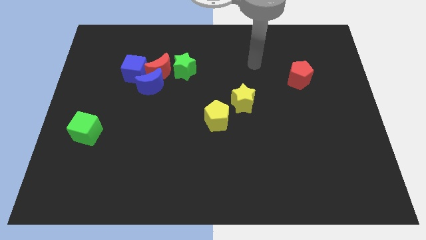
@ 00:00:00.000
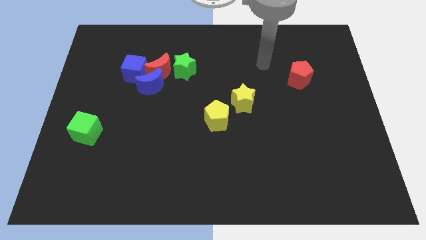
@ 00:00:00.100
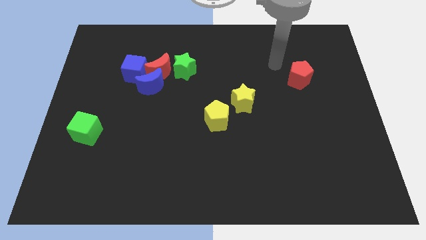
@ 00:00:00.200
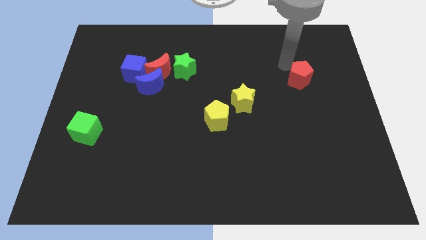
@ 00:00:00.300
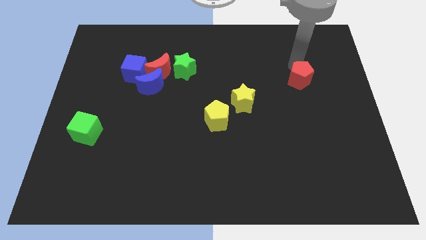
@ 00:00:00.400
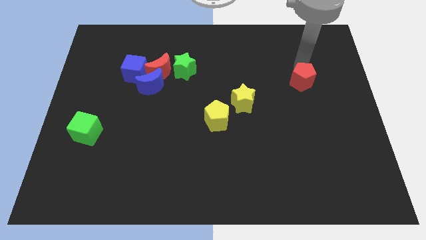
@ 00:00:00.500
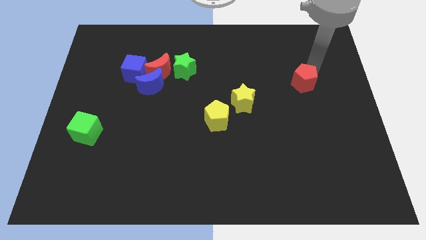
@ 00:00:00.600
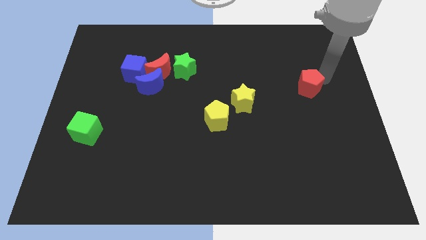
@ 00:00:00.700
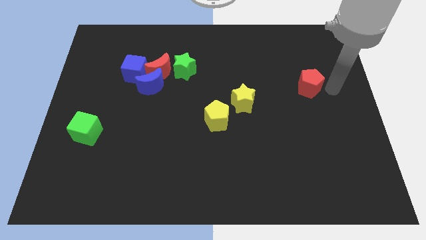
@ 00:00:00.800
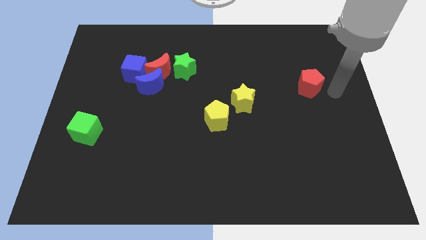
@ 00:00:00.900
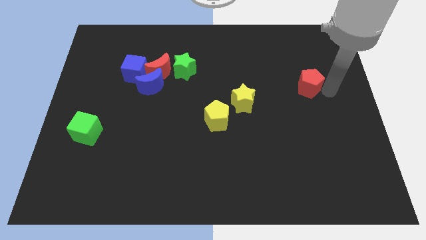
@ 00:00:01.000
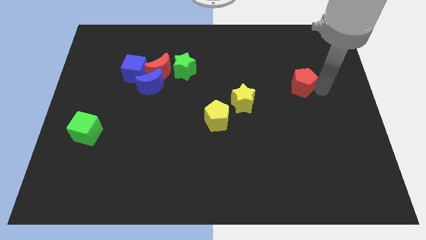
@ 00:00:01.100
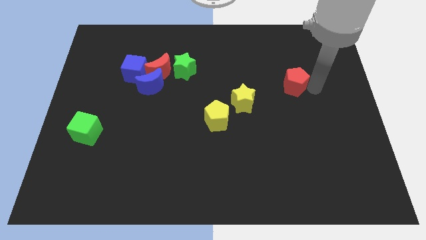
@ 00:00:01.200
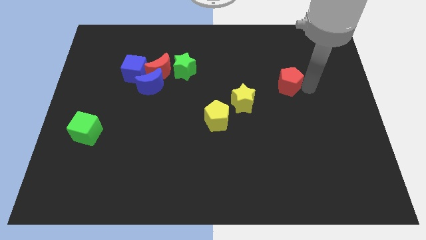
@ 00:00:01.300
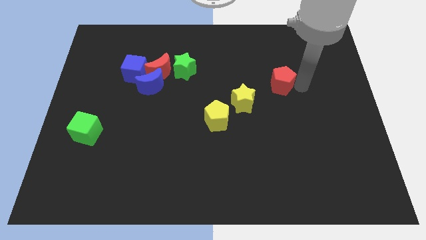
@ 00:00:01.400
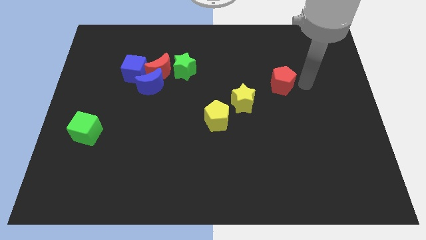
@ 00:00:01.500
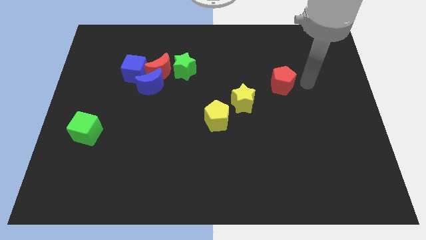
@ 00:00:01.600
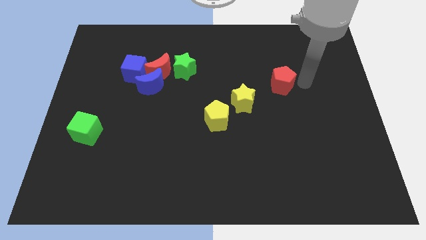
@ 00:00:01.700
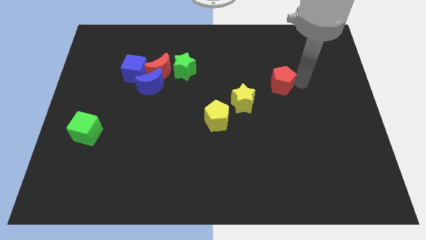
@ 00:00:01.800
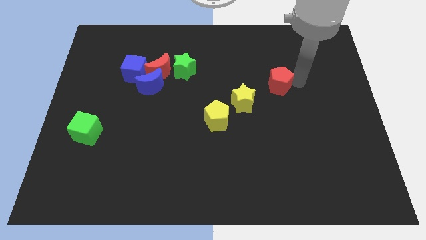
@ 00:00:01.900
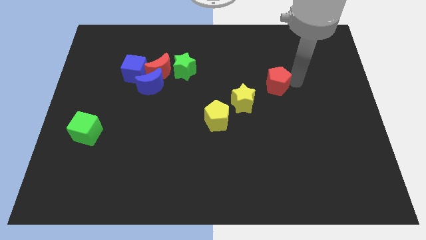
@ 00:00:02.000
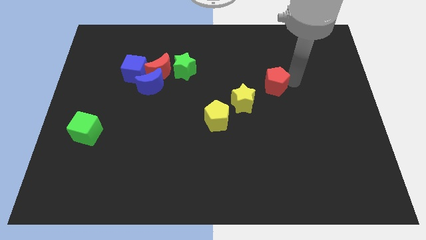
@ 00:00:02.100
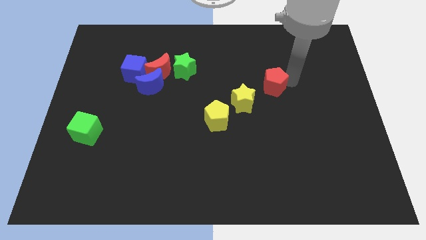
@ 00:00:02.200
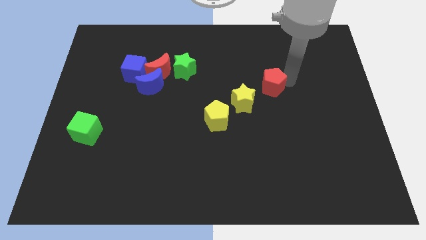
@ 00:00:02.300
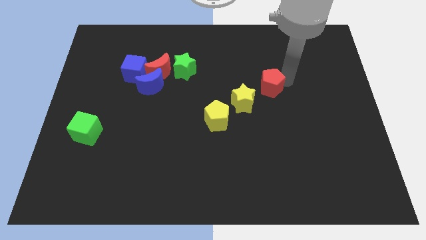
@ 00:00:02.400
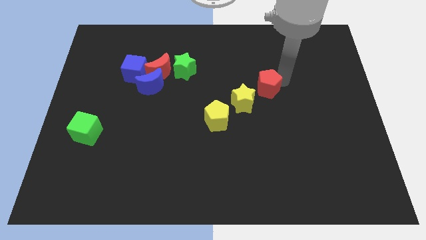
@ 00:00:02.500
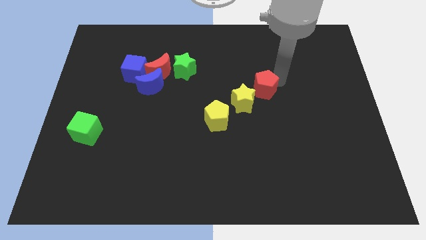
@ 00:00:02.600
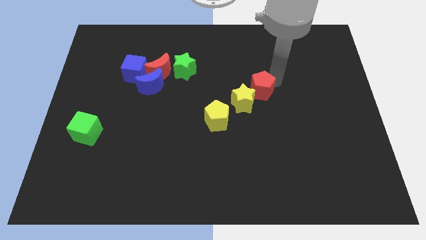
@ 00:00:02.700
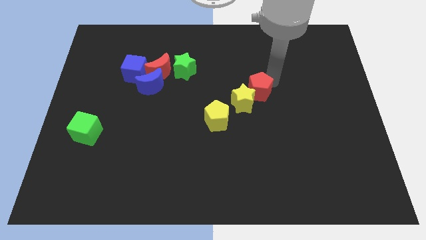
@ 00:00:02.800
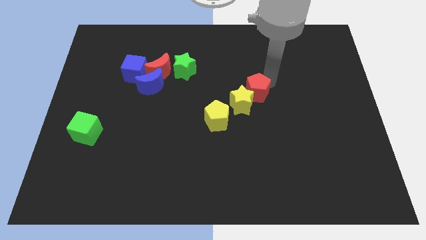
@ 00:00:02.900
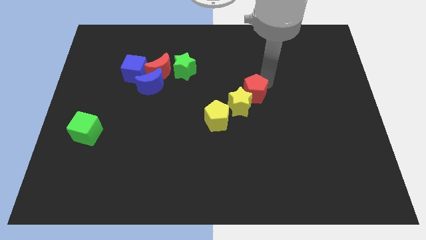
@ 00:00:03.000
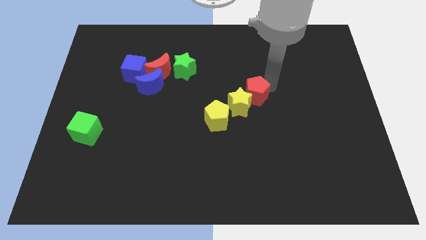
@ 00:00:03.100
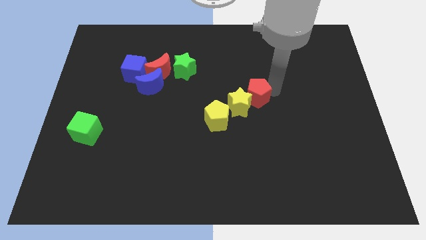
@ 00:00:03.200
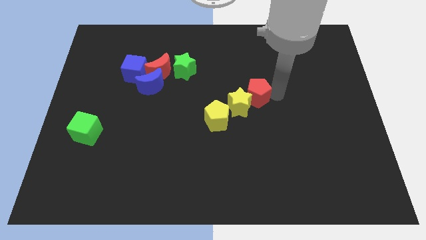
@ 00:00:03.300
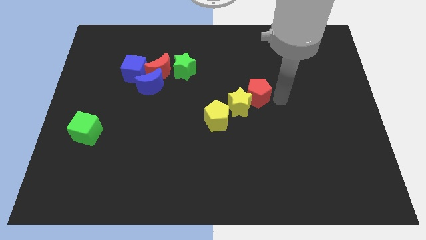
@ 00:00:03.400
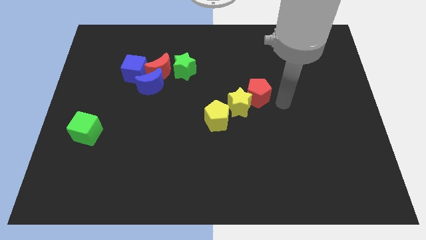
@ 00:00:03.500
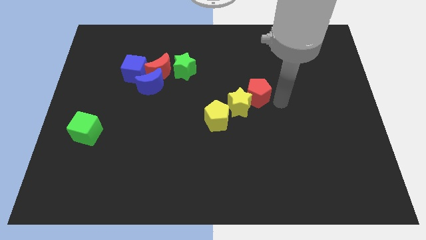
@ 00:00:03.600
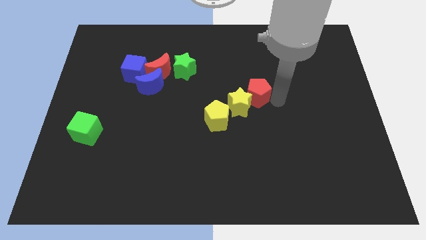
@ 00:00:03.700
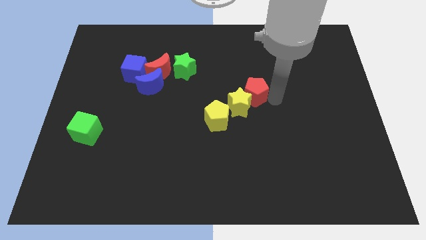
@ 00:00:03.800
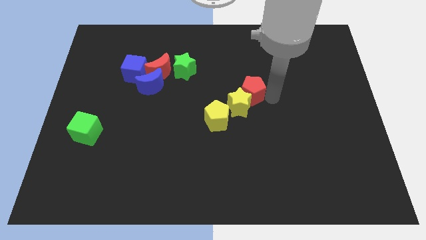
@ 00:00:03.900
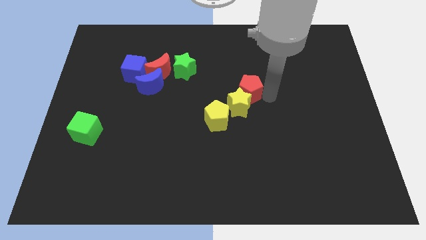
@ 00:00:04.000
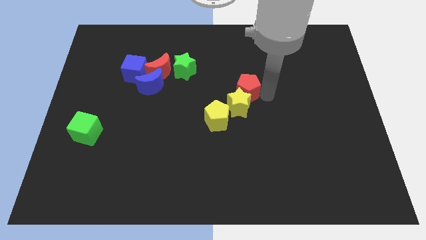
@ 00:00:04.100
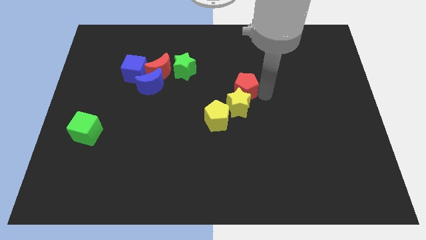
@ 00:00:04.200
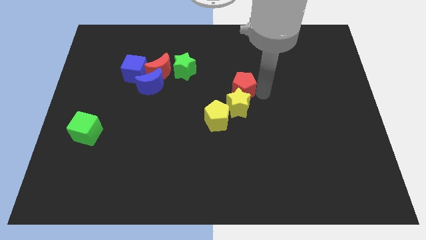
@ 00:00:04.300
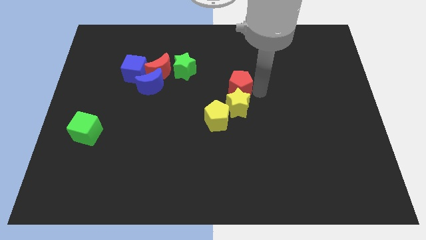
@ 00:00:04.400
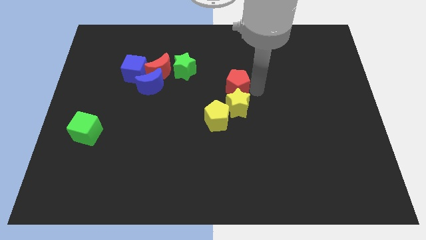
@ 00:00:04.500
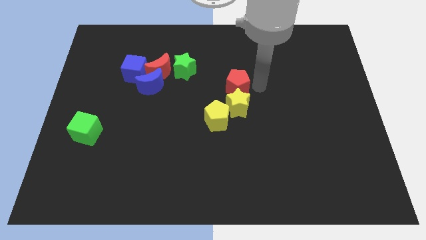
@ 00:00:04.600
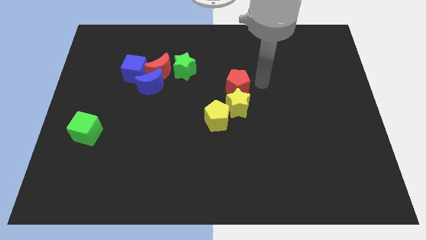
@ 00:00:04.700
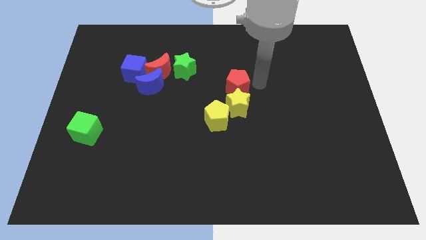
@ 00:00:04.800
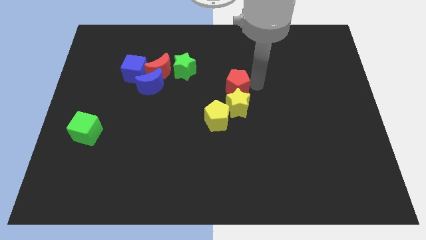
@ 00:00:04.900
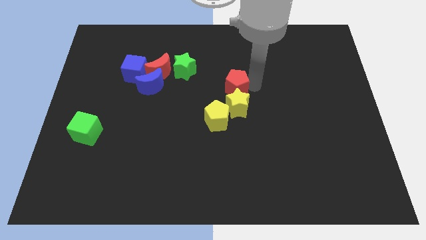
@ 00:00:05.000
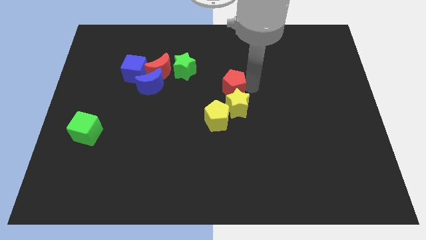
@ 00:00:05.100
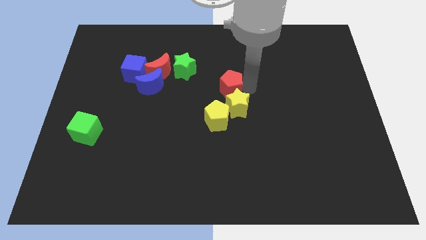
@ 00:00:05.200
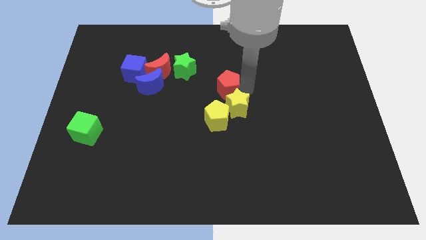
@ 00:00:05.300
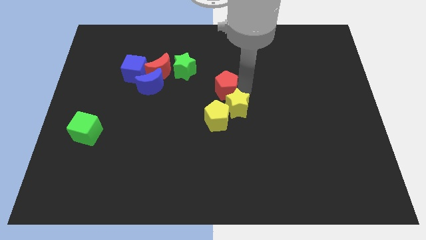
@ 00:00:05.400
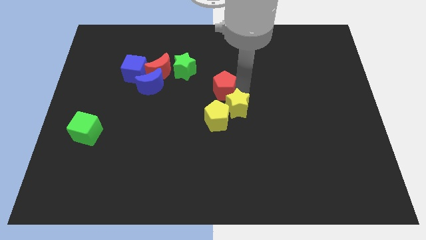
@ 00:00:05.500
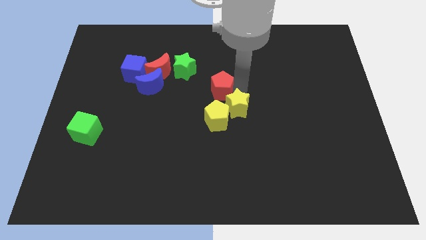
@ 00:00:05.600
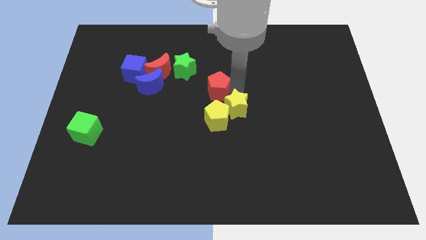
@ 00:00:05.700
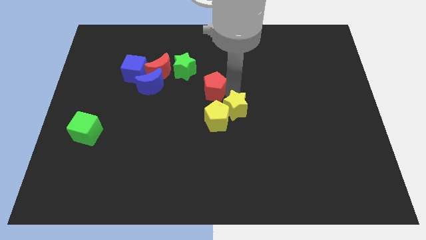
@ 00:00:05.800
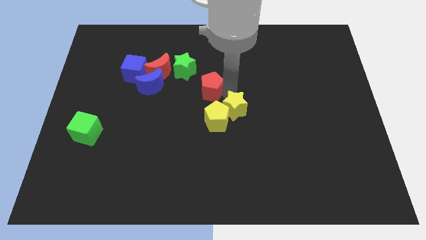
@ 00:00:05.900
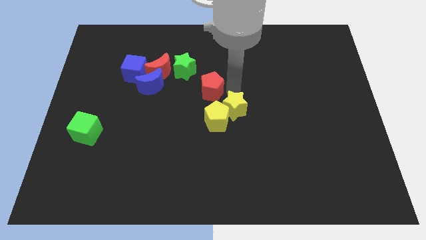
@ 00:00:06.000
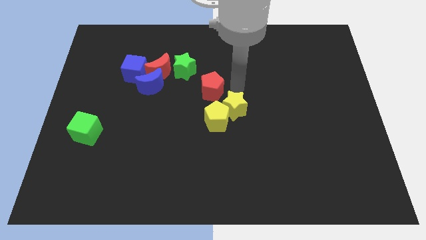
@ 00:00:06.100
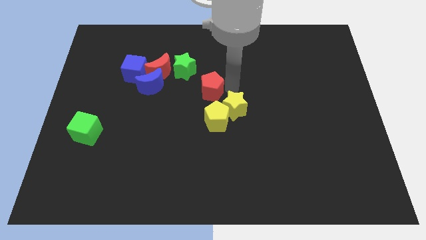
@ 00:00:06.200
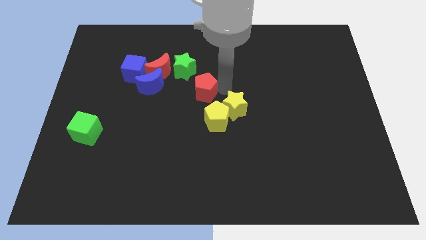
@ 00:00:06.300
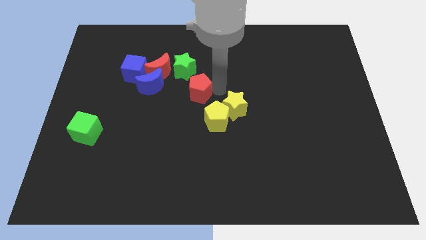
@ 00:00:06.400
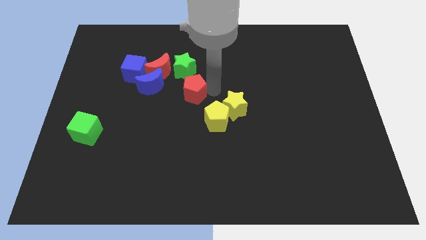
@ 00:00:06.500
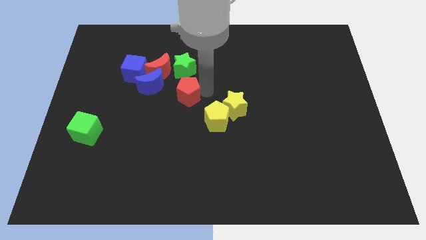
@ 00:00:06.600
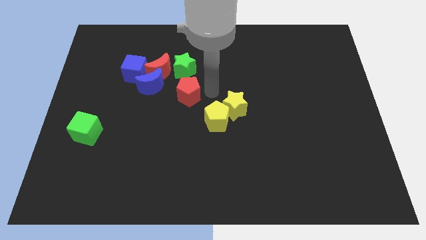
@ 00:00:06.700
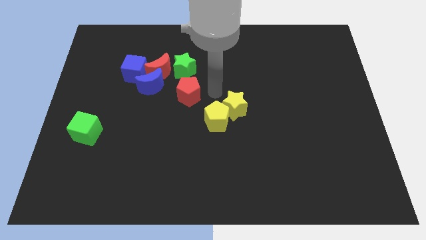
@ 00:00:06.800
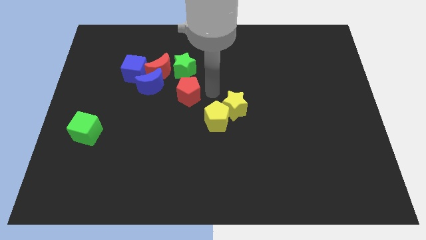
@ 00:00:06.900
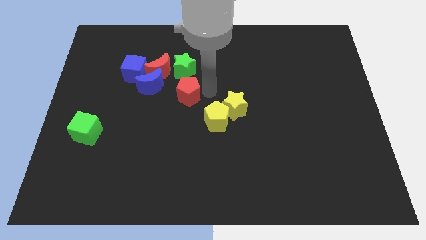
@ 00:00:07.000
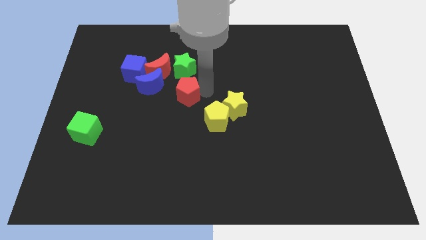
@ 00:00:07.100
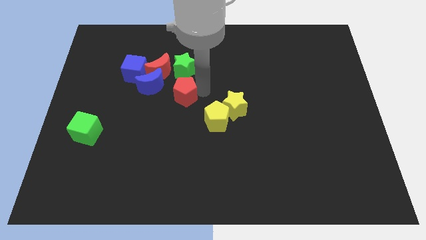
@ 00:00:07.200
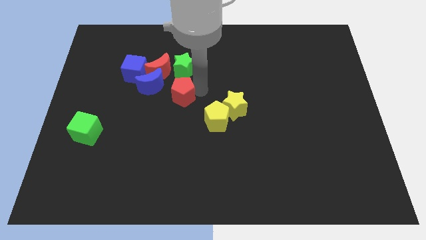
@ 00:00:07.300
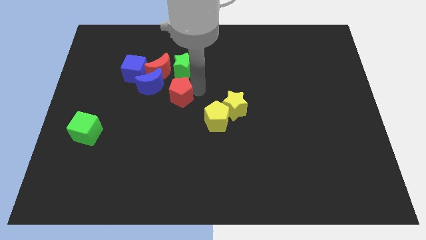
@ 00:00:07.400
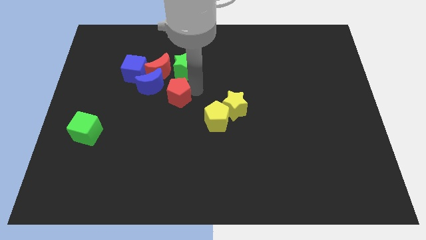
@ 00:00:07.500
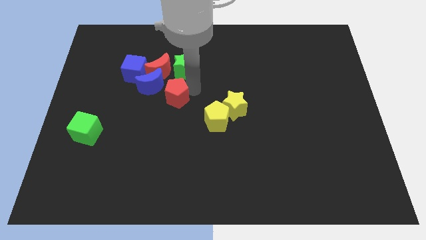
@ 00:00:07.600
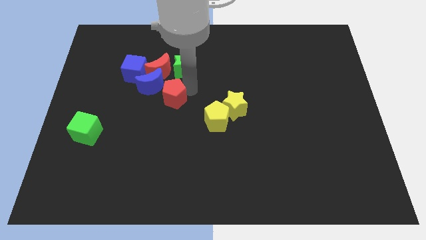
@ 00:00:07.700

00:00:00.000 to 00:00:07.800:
push the red pentagon diagonally down and to the right of the blue cube

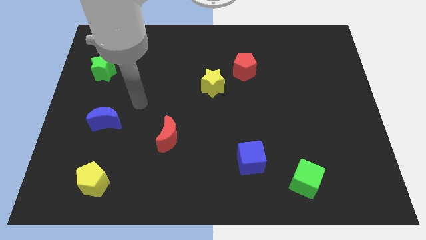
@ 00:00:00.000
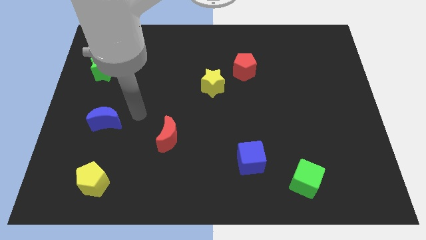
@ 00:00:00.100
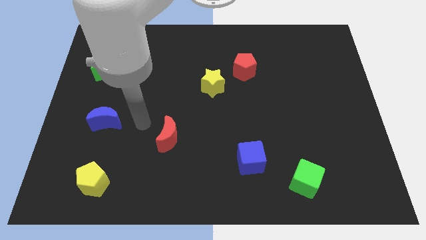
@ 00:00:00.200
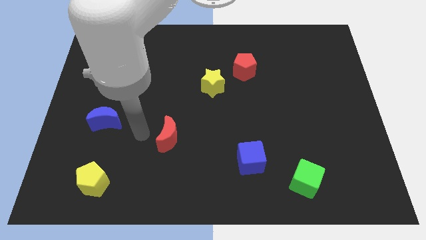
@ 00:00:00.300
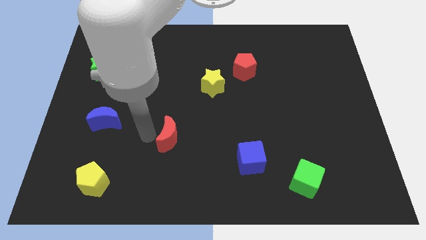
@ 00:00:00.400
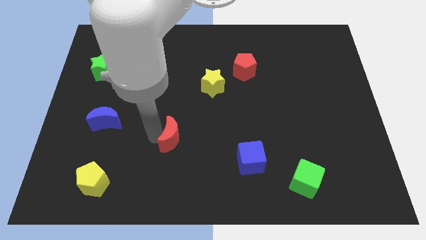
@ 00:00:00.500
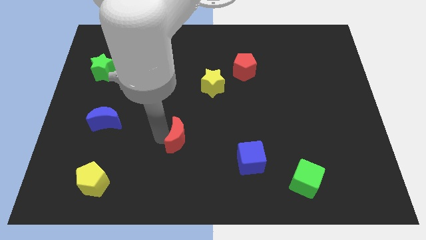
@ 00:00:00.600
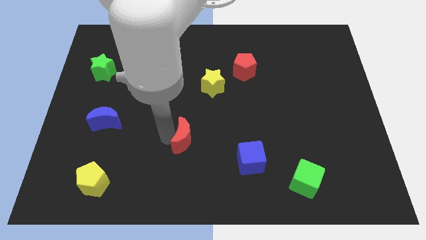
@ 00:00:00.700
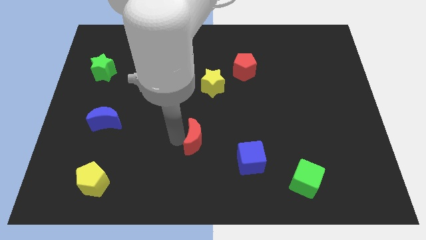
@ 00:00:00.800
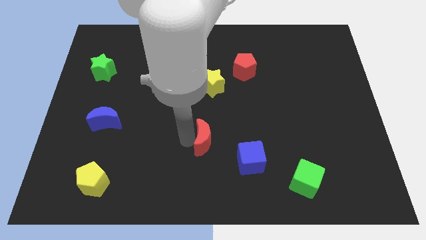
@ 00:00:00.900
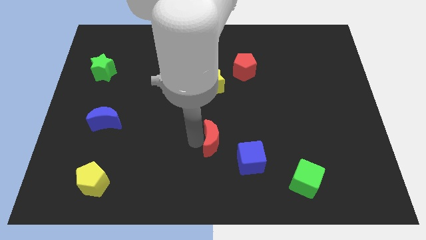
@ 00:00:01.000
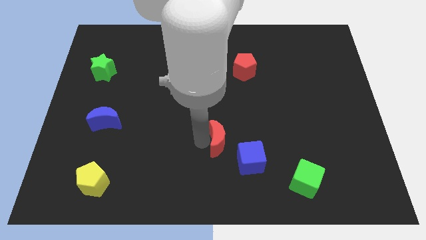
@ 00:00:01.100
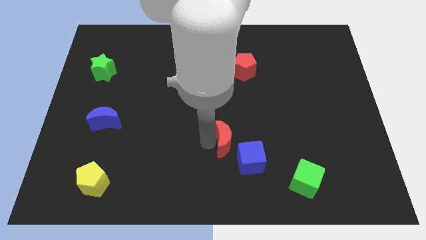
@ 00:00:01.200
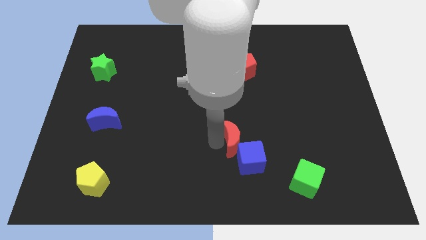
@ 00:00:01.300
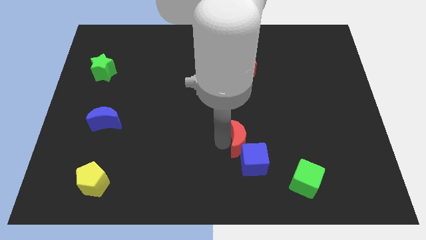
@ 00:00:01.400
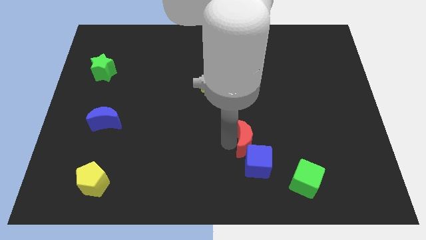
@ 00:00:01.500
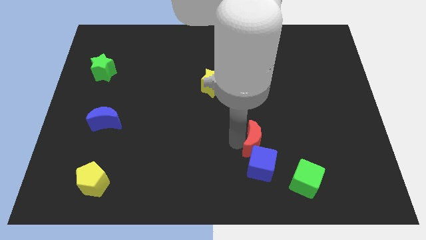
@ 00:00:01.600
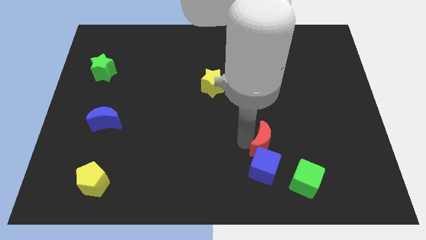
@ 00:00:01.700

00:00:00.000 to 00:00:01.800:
slide the red moon to the top right side of the blue cube
